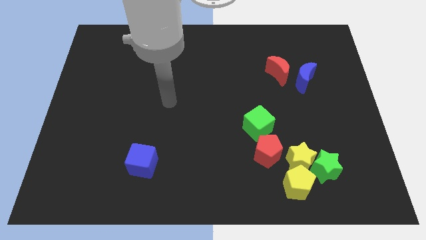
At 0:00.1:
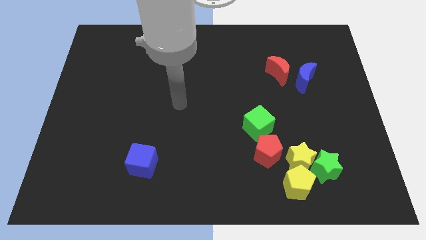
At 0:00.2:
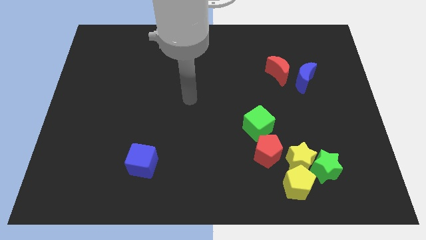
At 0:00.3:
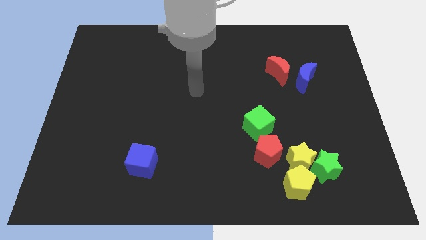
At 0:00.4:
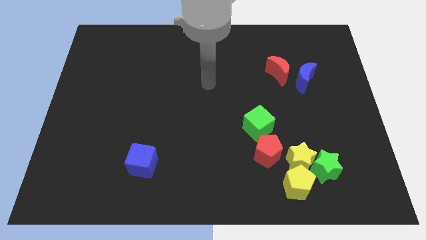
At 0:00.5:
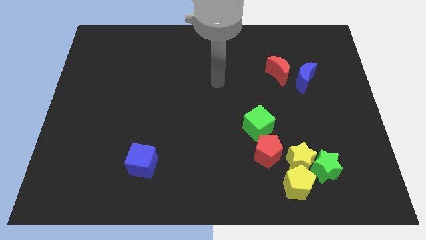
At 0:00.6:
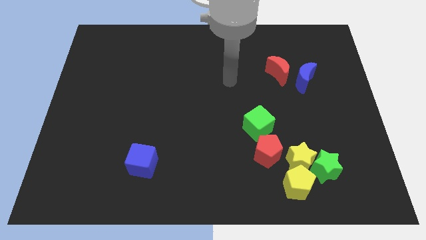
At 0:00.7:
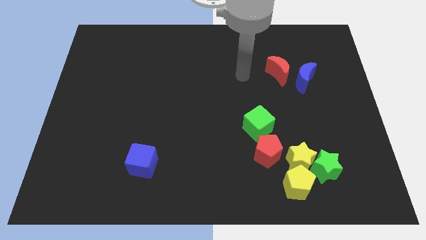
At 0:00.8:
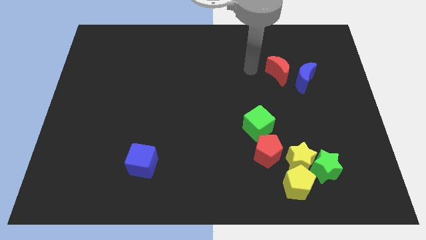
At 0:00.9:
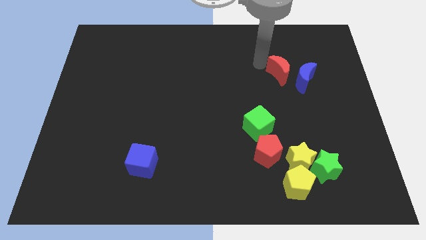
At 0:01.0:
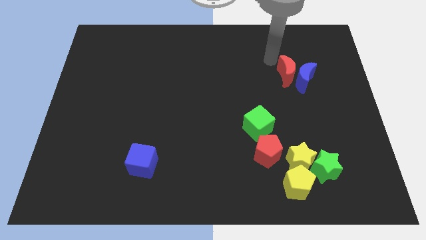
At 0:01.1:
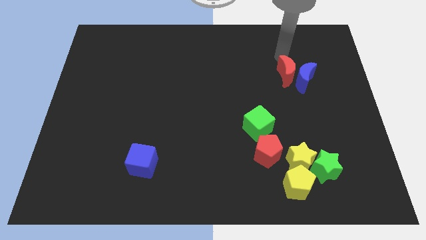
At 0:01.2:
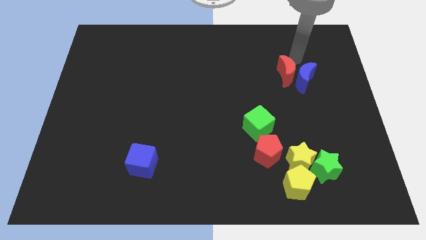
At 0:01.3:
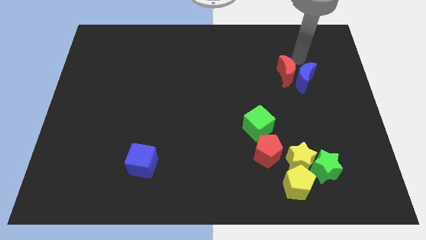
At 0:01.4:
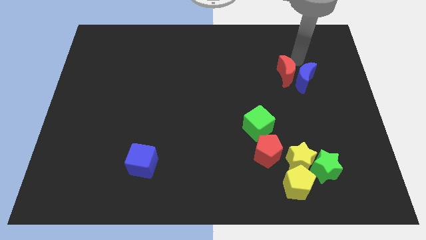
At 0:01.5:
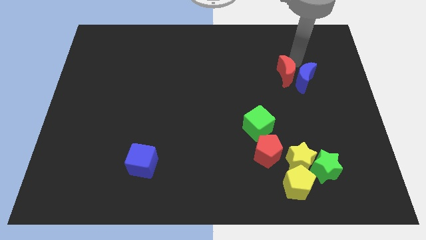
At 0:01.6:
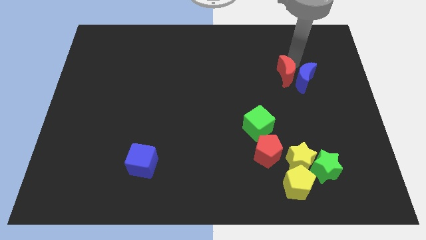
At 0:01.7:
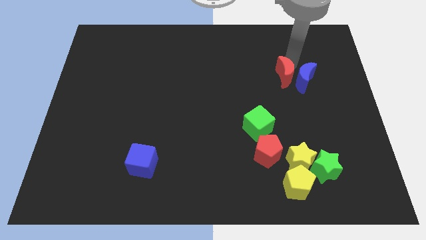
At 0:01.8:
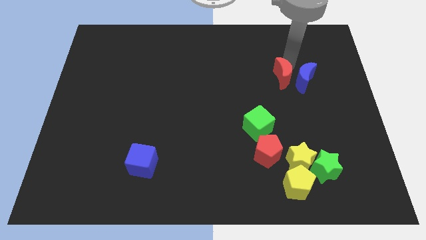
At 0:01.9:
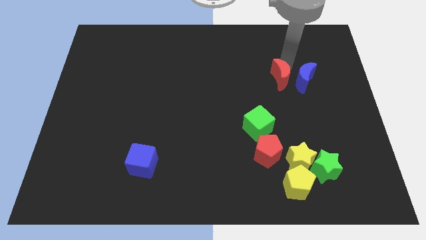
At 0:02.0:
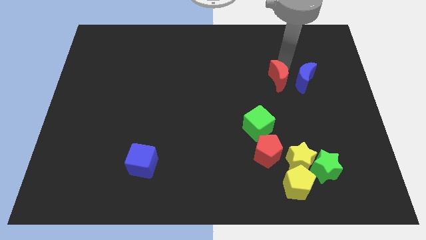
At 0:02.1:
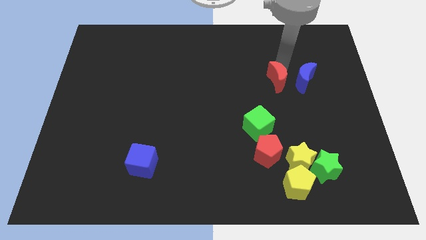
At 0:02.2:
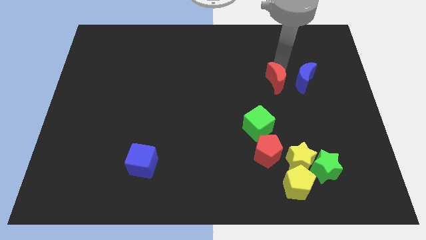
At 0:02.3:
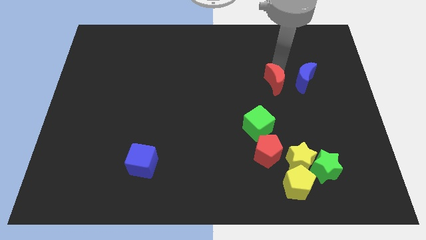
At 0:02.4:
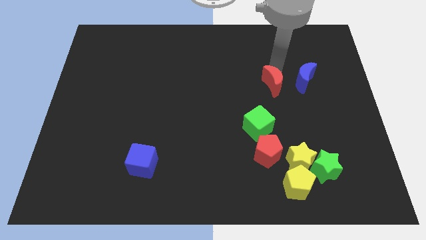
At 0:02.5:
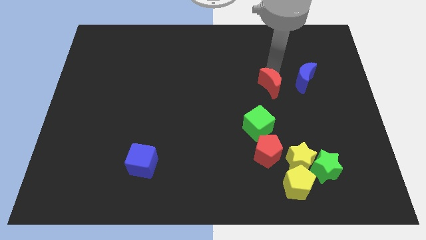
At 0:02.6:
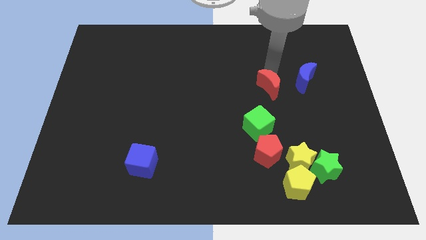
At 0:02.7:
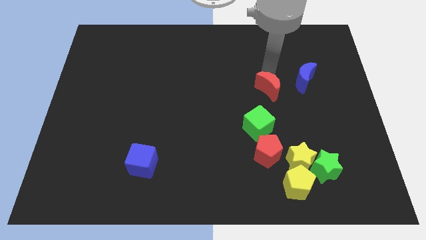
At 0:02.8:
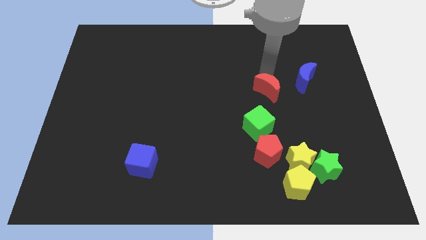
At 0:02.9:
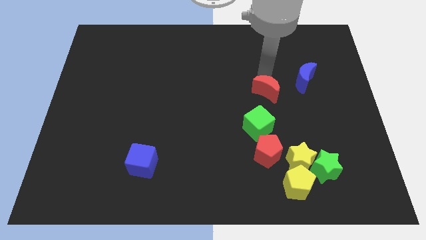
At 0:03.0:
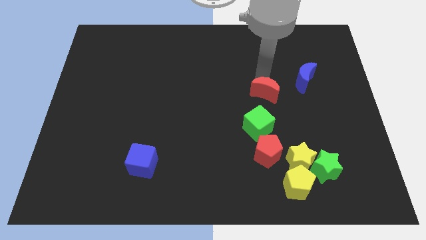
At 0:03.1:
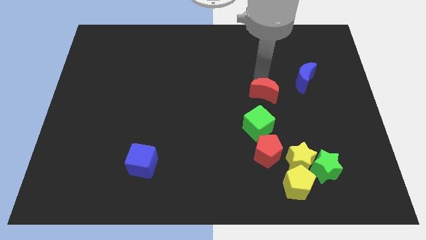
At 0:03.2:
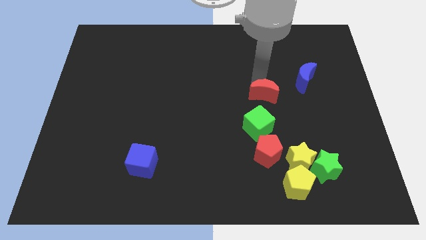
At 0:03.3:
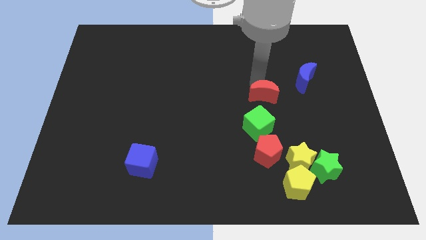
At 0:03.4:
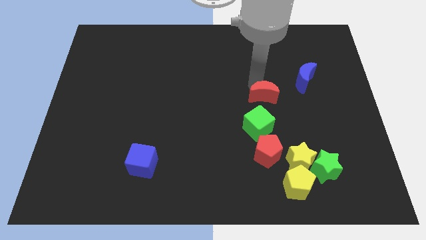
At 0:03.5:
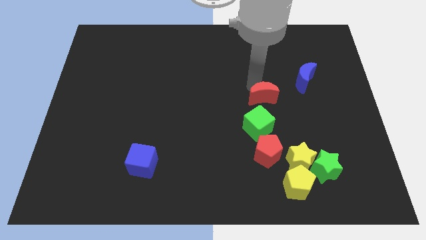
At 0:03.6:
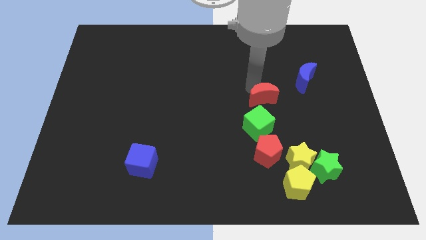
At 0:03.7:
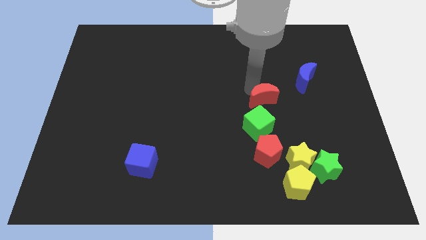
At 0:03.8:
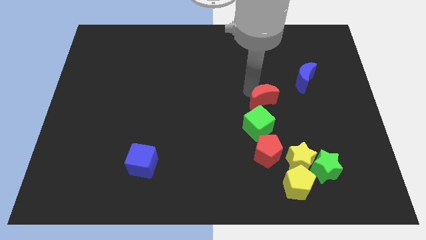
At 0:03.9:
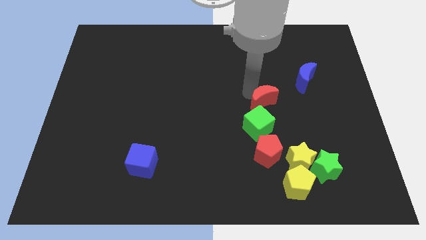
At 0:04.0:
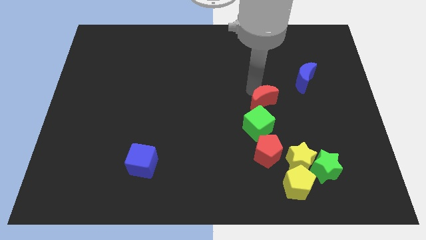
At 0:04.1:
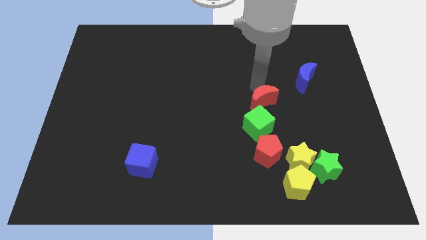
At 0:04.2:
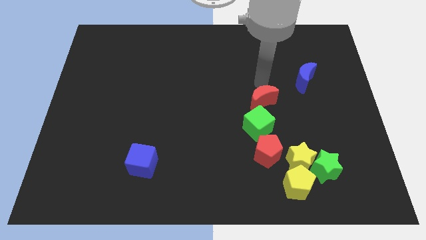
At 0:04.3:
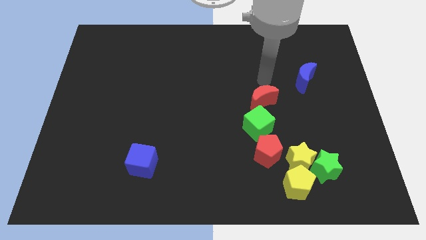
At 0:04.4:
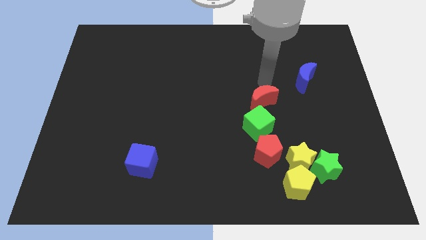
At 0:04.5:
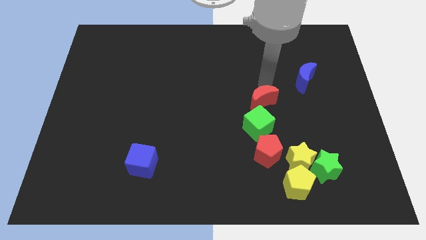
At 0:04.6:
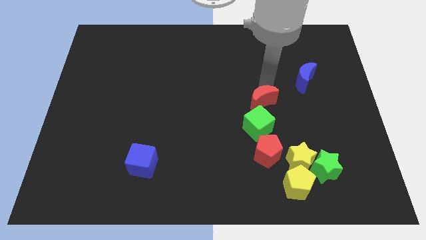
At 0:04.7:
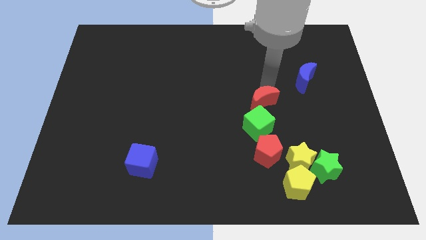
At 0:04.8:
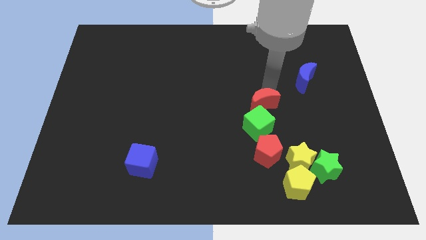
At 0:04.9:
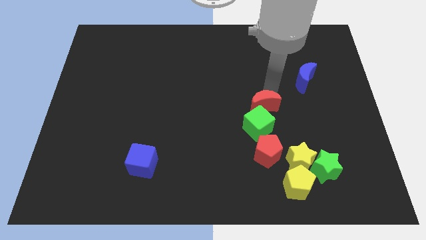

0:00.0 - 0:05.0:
slide the red moon next to the green cube

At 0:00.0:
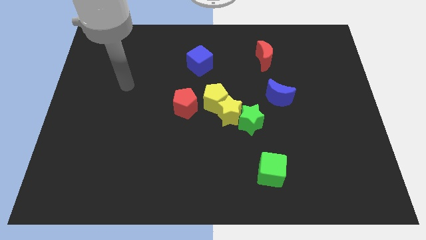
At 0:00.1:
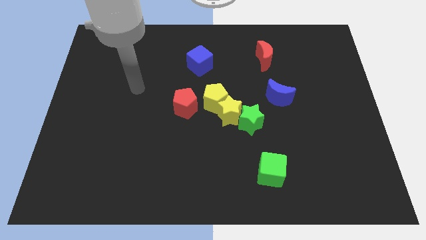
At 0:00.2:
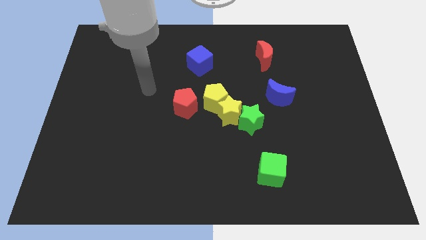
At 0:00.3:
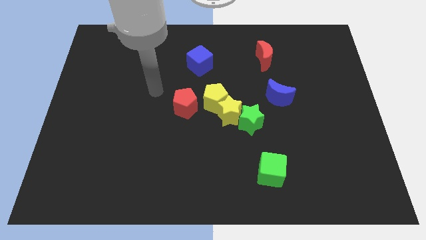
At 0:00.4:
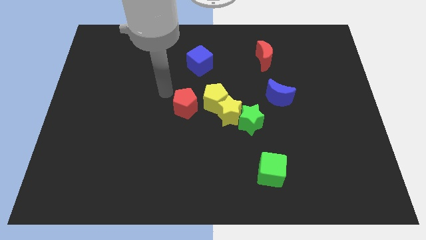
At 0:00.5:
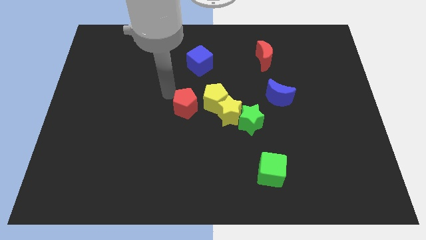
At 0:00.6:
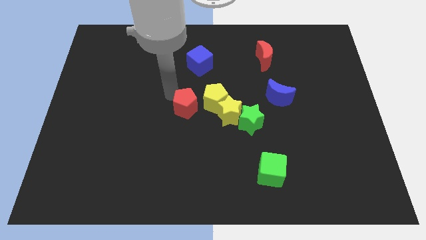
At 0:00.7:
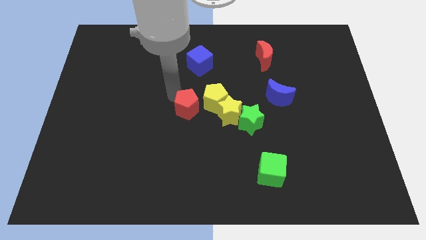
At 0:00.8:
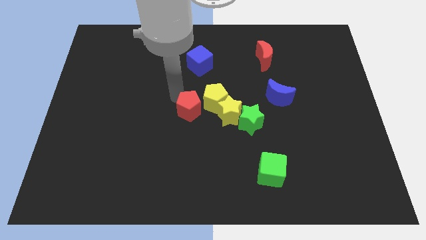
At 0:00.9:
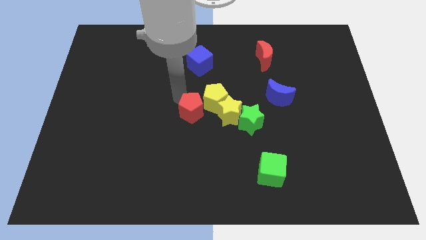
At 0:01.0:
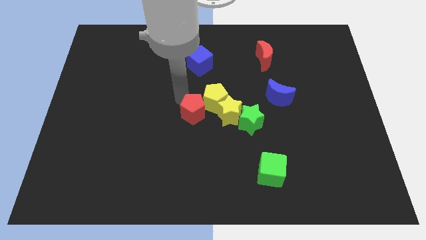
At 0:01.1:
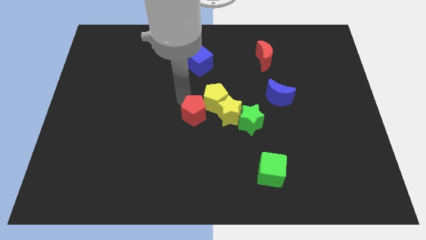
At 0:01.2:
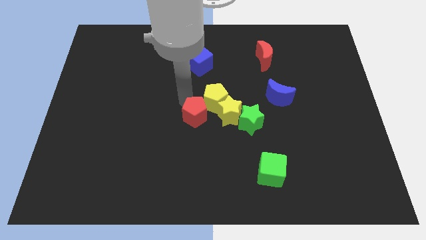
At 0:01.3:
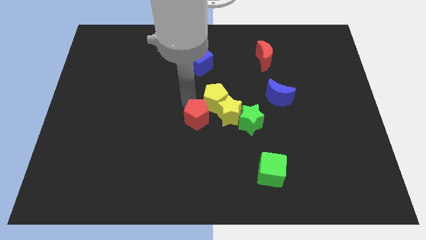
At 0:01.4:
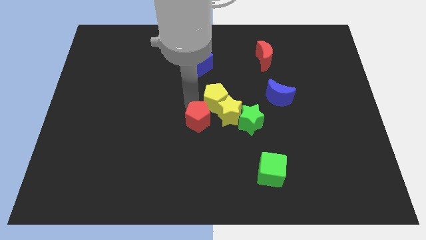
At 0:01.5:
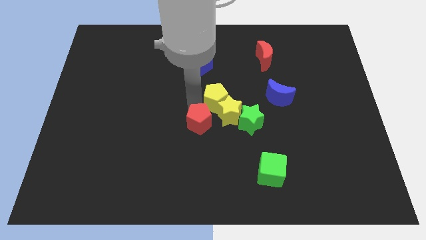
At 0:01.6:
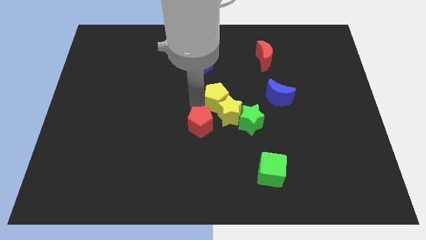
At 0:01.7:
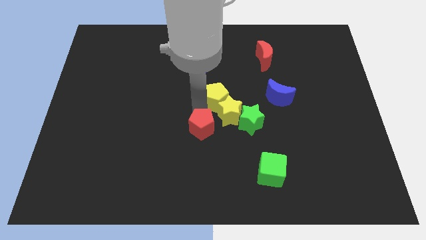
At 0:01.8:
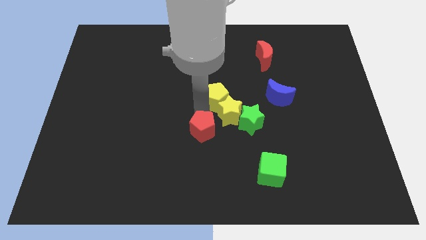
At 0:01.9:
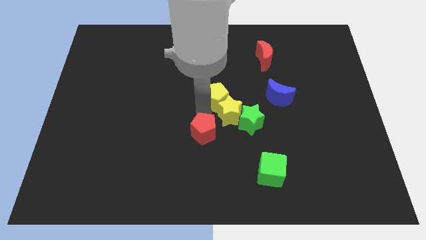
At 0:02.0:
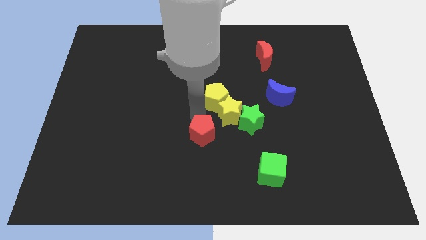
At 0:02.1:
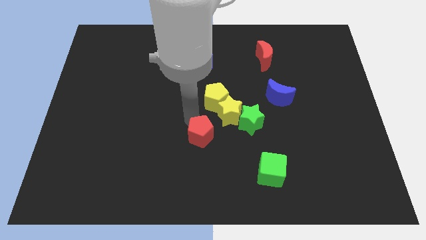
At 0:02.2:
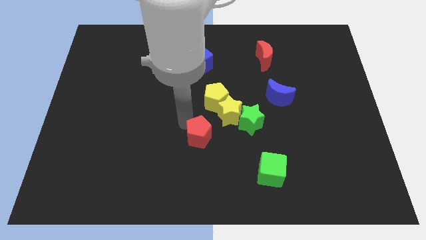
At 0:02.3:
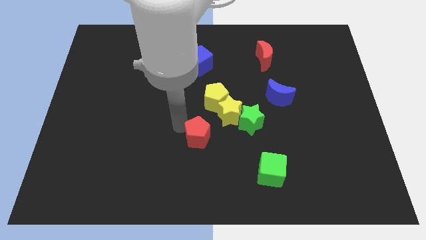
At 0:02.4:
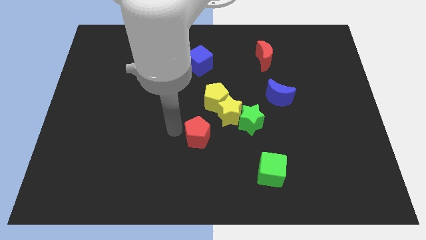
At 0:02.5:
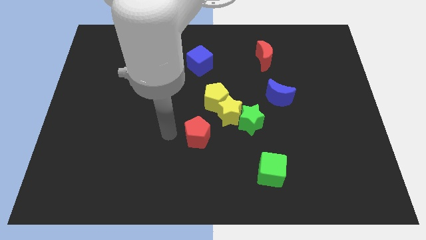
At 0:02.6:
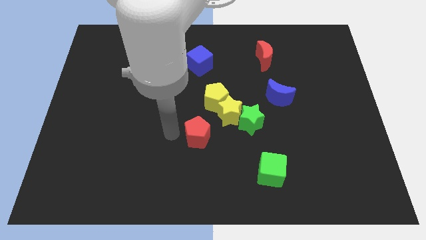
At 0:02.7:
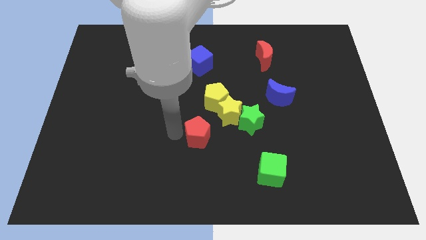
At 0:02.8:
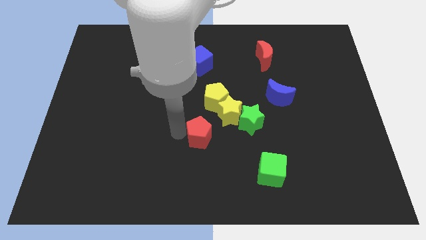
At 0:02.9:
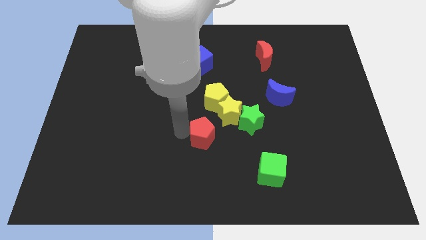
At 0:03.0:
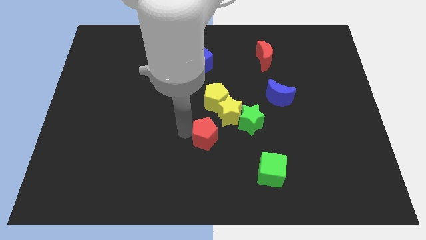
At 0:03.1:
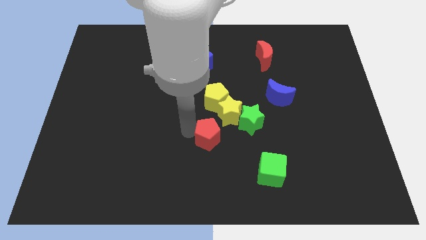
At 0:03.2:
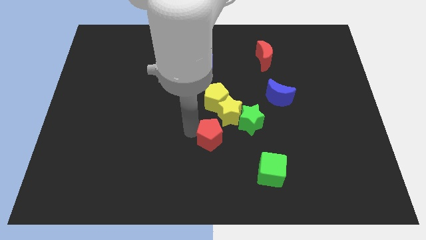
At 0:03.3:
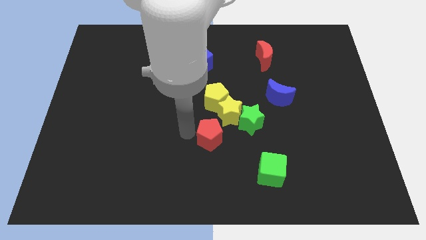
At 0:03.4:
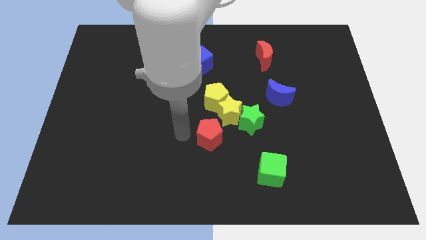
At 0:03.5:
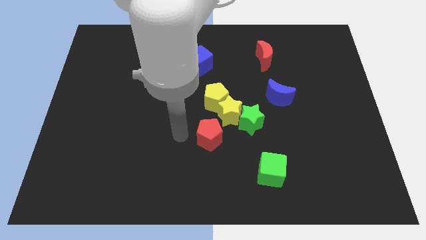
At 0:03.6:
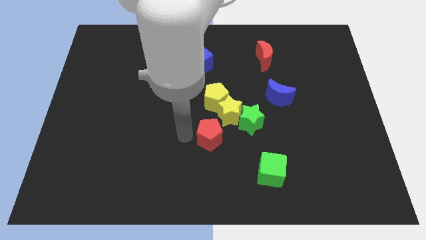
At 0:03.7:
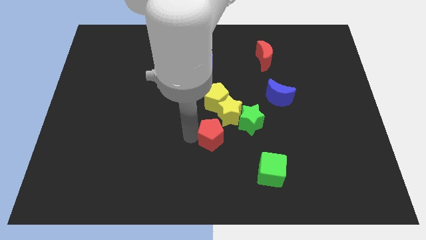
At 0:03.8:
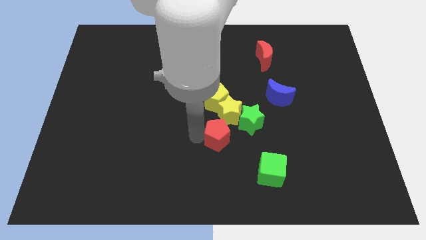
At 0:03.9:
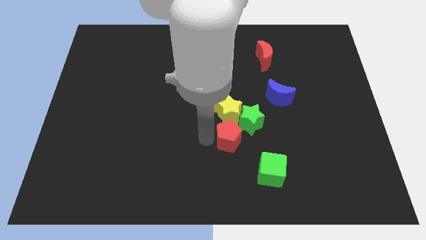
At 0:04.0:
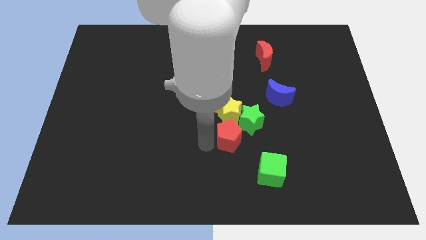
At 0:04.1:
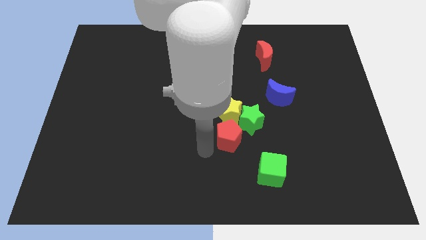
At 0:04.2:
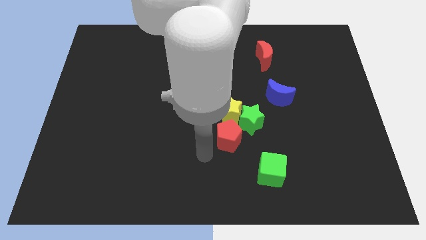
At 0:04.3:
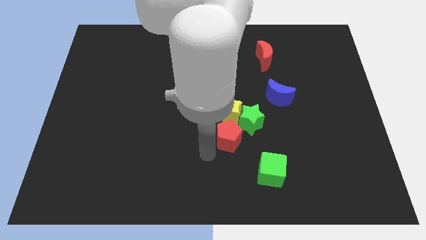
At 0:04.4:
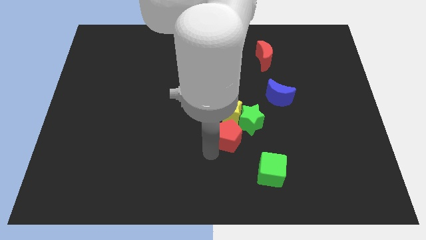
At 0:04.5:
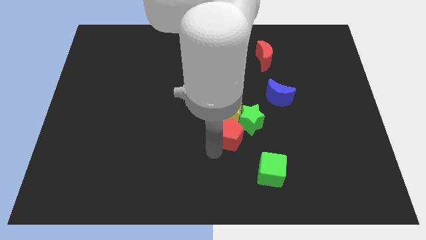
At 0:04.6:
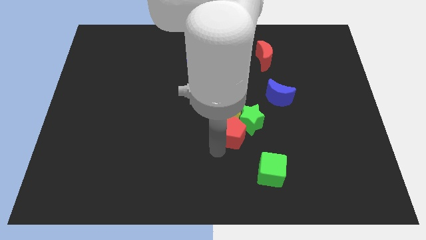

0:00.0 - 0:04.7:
move the red pentagon next to the green star
